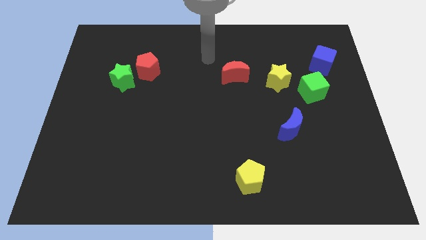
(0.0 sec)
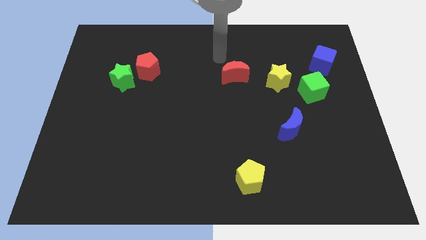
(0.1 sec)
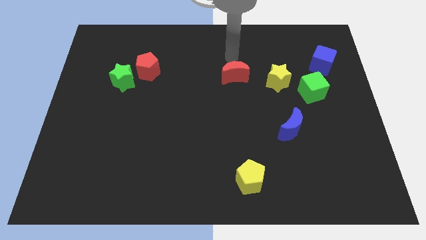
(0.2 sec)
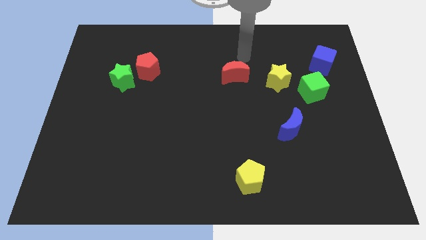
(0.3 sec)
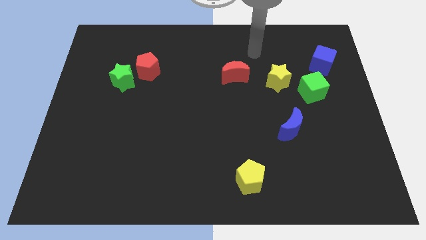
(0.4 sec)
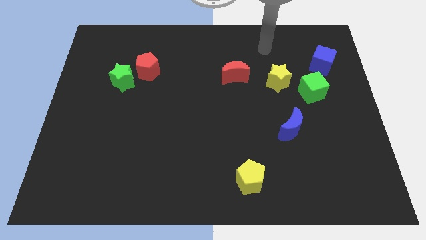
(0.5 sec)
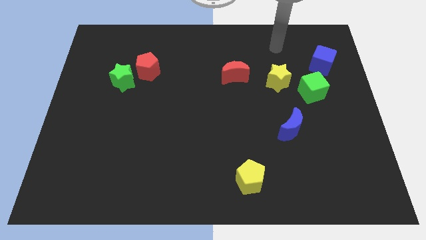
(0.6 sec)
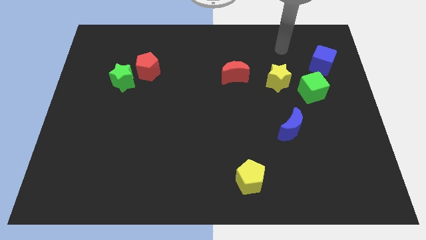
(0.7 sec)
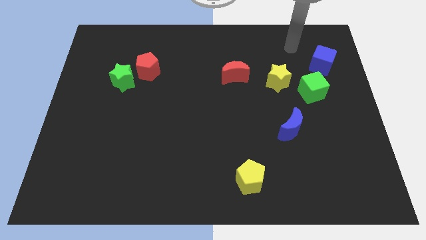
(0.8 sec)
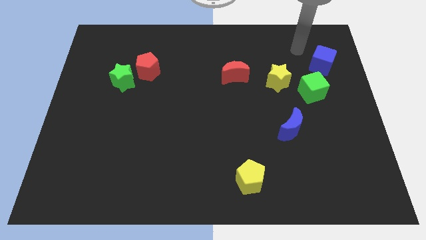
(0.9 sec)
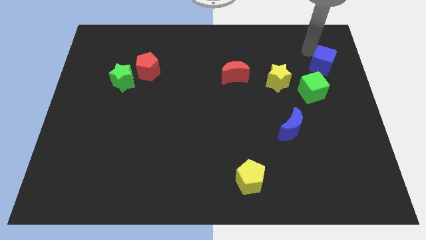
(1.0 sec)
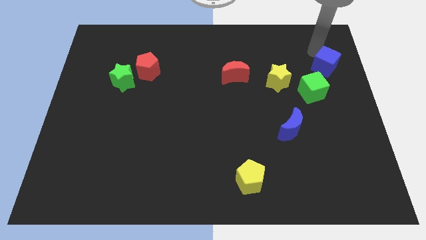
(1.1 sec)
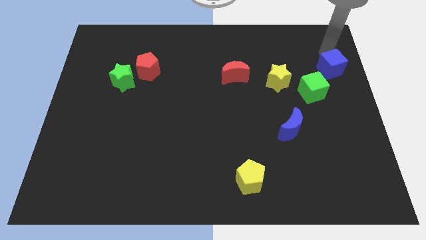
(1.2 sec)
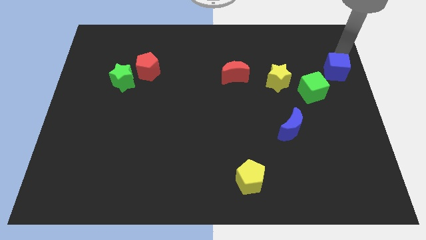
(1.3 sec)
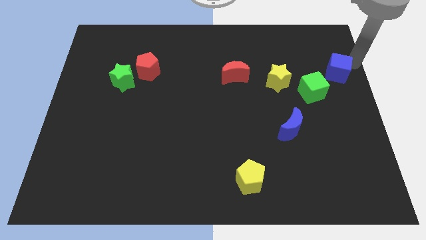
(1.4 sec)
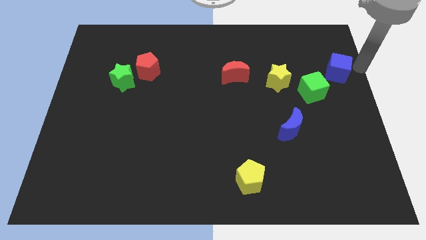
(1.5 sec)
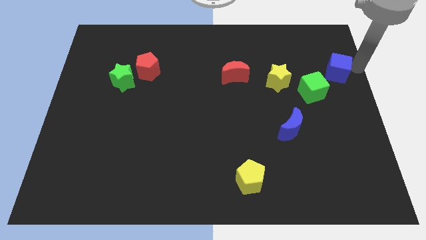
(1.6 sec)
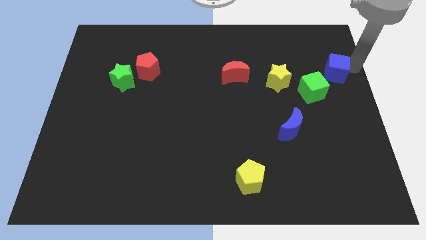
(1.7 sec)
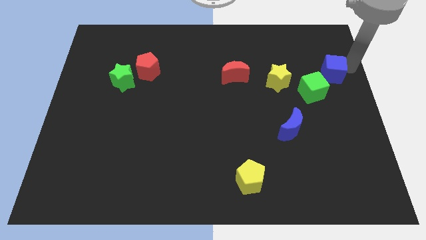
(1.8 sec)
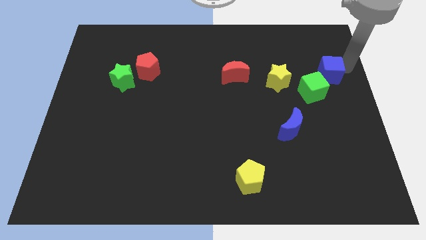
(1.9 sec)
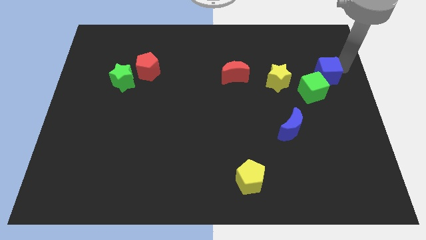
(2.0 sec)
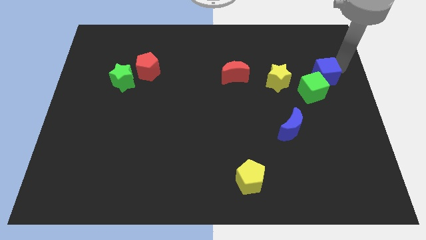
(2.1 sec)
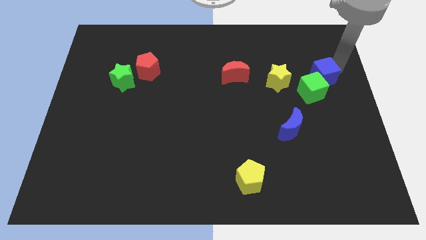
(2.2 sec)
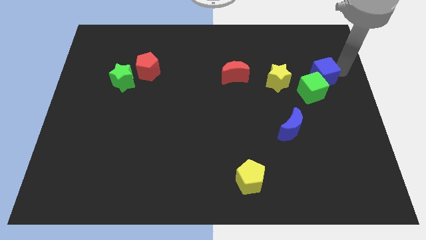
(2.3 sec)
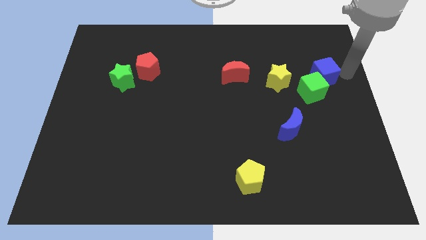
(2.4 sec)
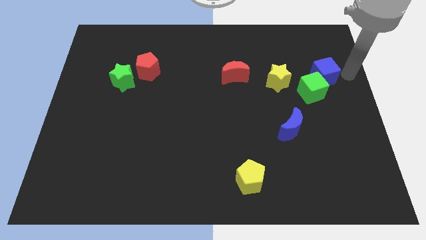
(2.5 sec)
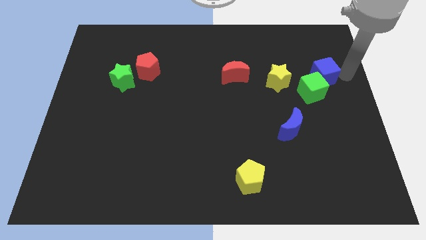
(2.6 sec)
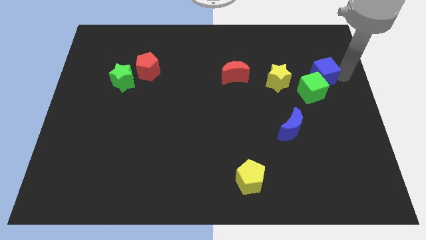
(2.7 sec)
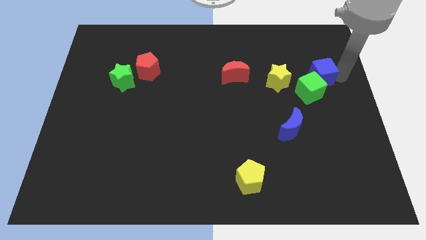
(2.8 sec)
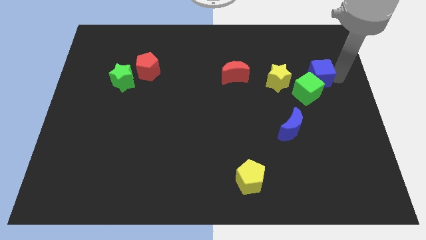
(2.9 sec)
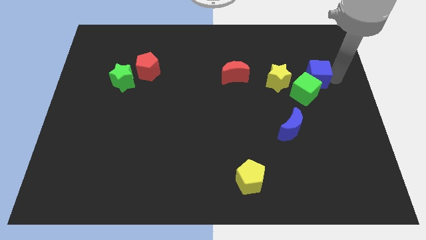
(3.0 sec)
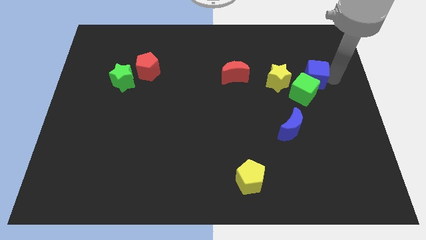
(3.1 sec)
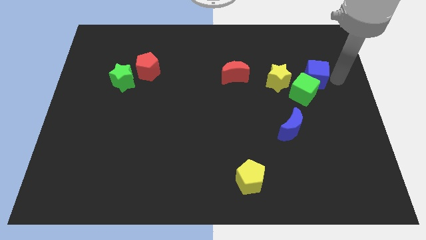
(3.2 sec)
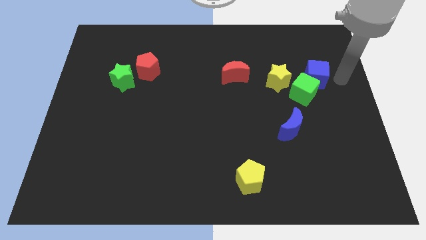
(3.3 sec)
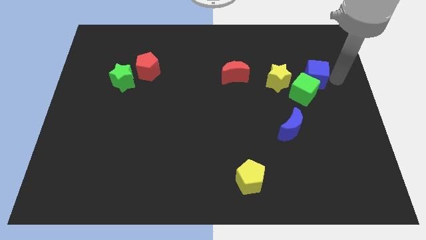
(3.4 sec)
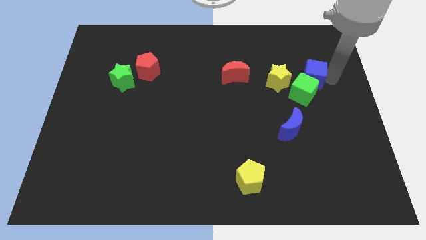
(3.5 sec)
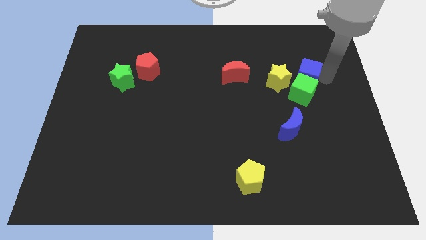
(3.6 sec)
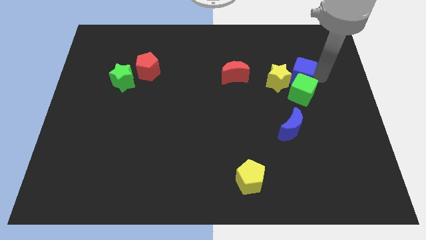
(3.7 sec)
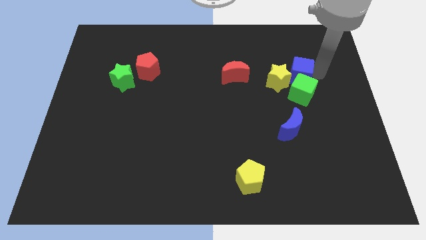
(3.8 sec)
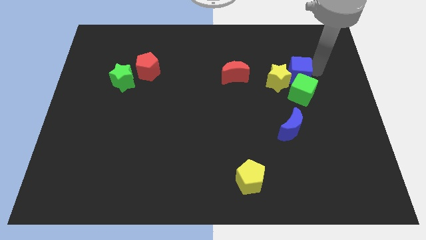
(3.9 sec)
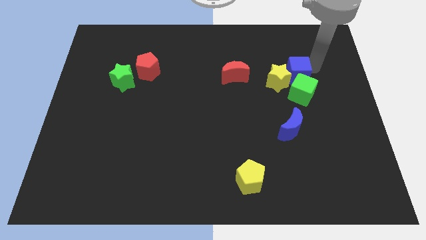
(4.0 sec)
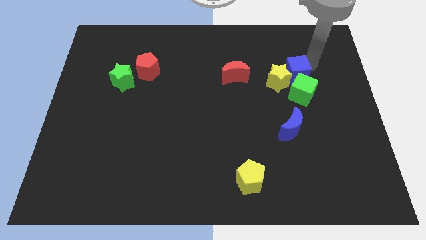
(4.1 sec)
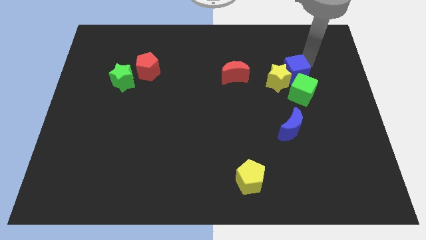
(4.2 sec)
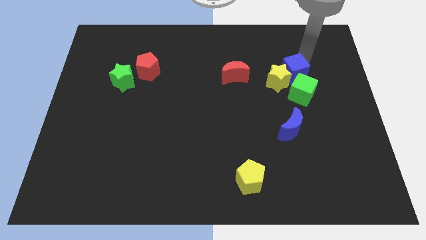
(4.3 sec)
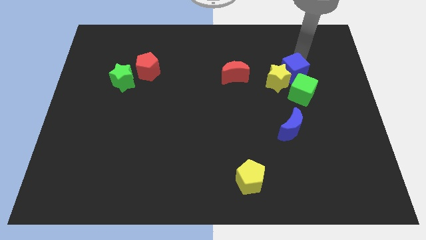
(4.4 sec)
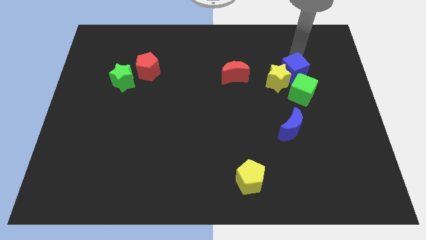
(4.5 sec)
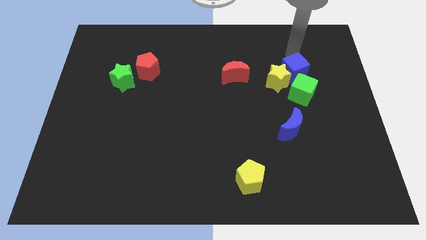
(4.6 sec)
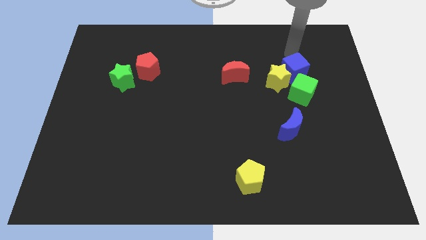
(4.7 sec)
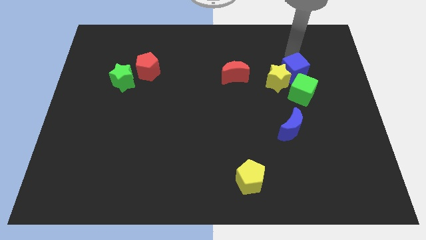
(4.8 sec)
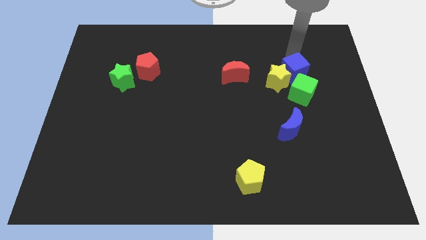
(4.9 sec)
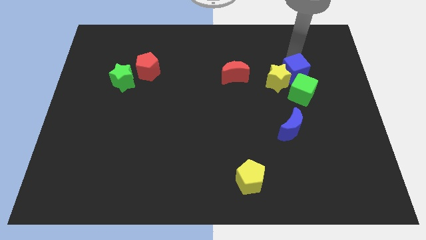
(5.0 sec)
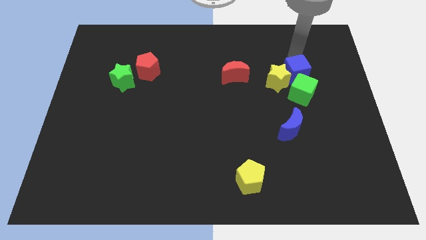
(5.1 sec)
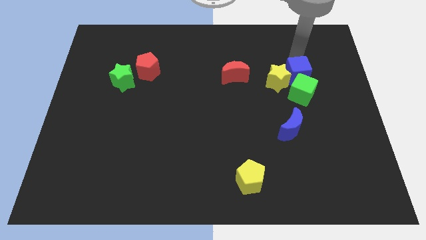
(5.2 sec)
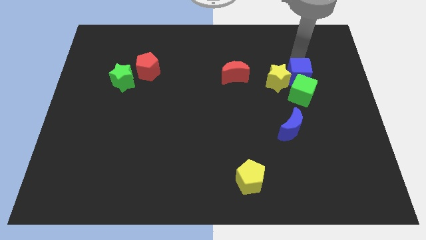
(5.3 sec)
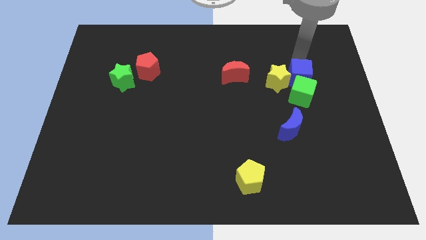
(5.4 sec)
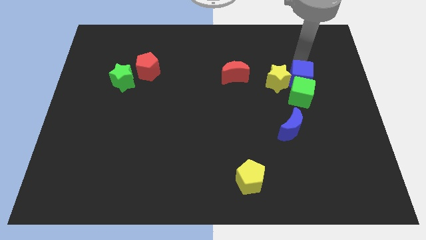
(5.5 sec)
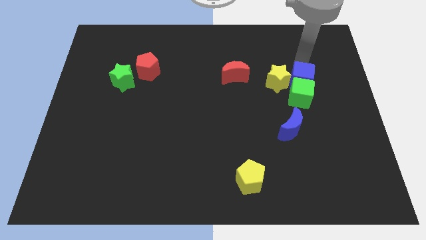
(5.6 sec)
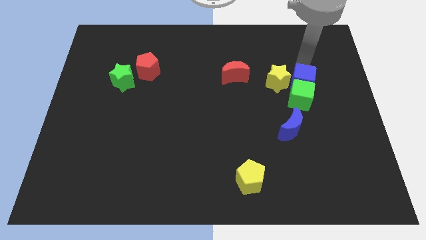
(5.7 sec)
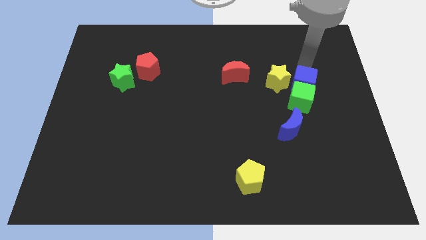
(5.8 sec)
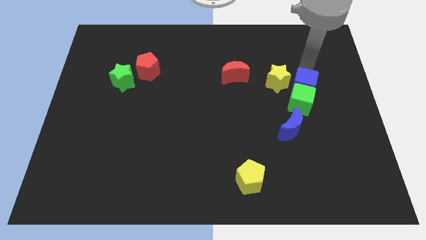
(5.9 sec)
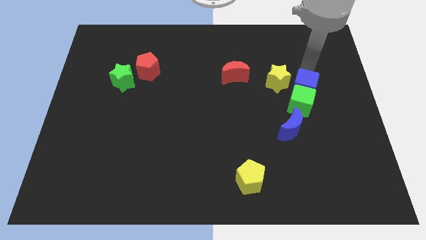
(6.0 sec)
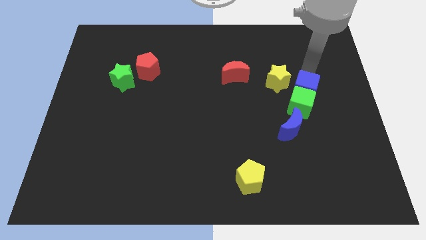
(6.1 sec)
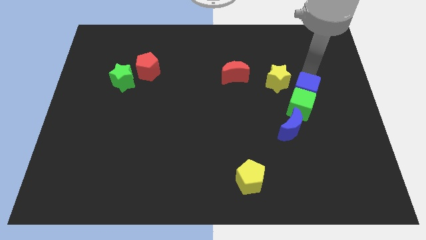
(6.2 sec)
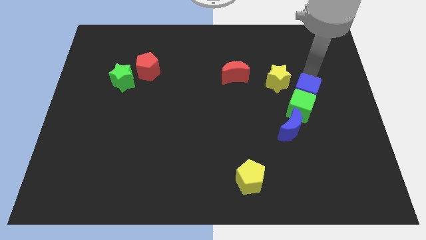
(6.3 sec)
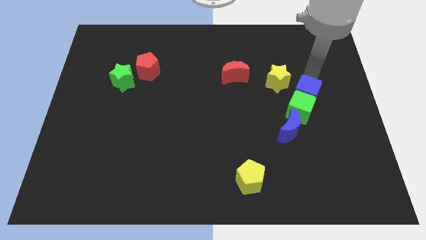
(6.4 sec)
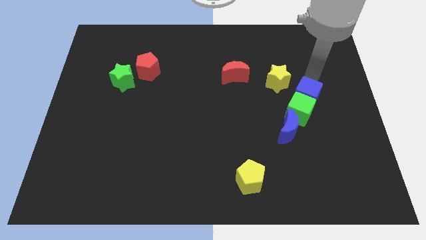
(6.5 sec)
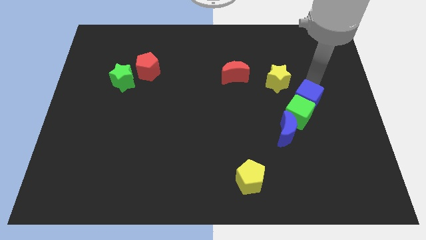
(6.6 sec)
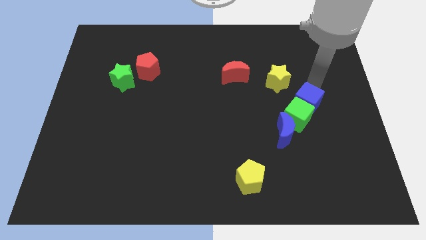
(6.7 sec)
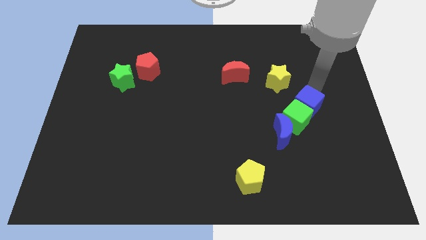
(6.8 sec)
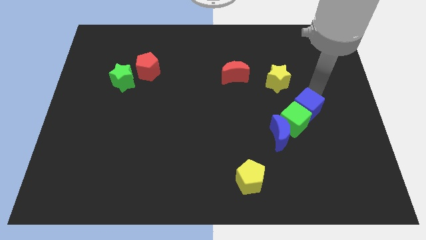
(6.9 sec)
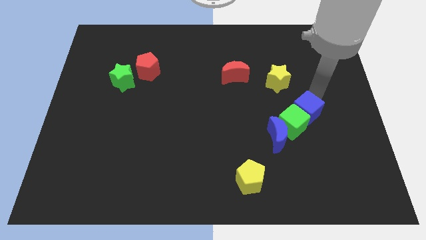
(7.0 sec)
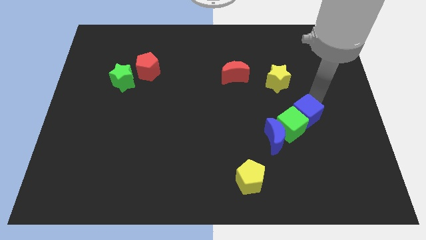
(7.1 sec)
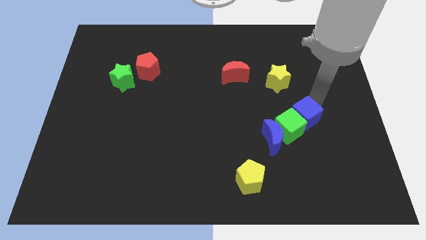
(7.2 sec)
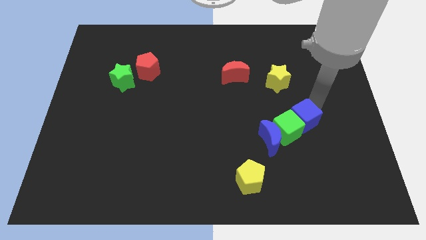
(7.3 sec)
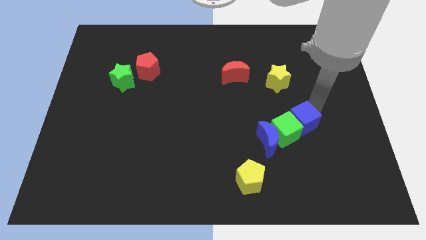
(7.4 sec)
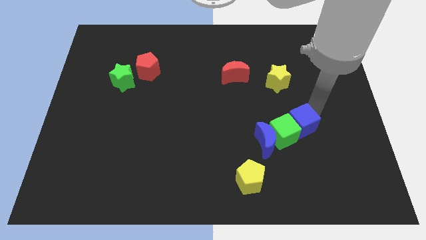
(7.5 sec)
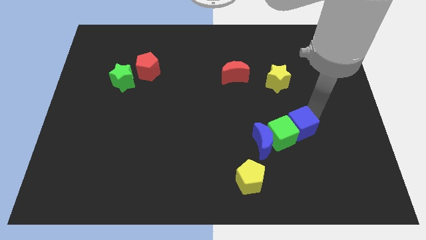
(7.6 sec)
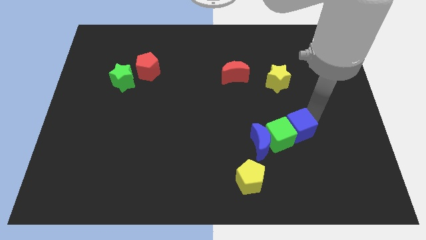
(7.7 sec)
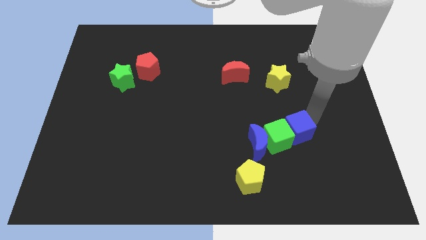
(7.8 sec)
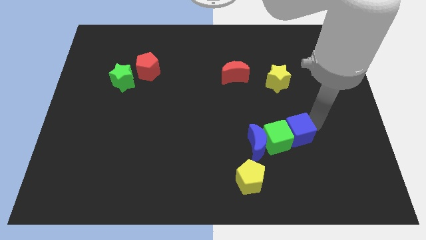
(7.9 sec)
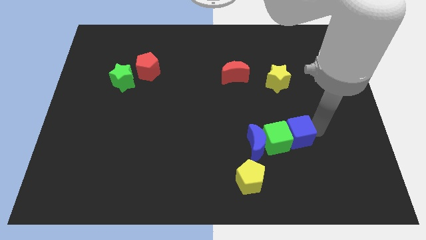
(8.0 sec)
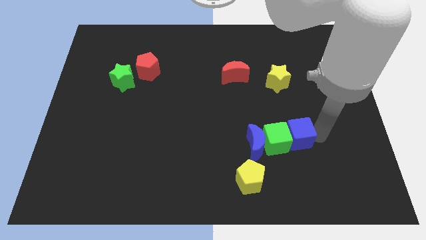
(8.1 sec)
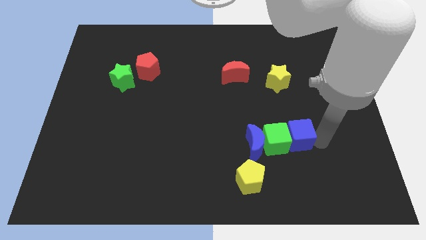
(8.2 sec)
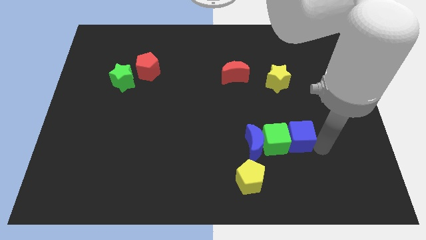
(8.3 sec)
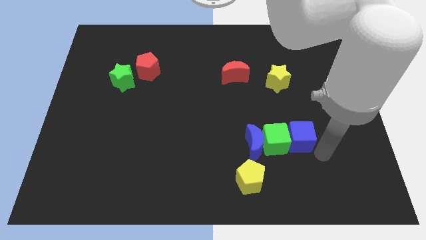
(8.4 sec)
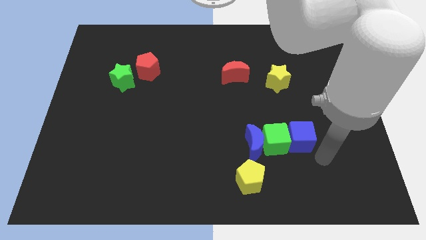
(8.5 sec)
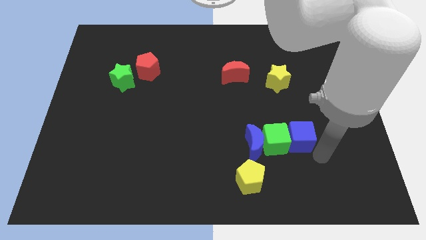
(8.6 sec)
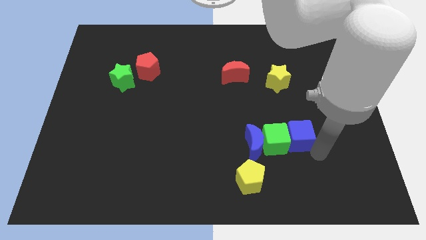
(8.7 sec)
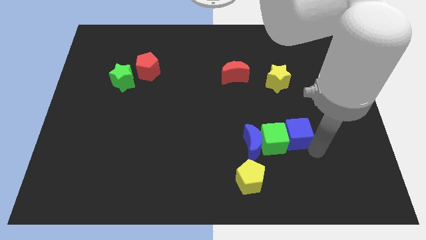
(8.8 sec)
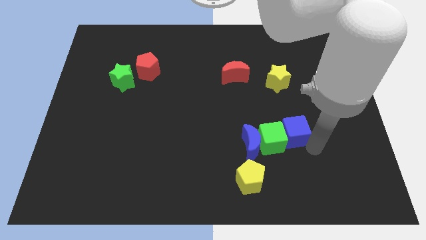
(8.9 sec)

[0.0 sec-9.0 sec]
move the blue cube down and then to the left
